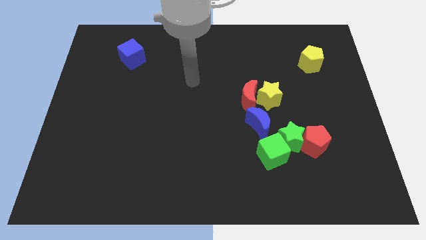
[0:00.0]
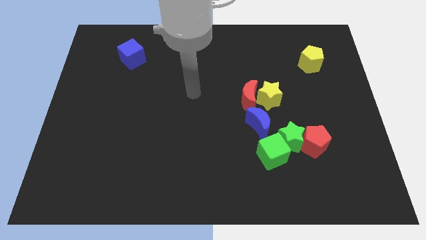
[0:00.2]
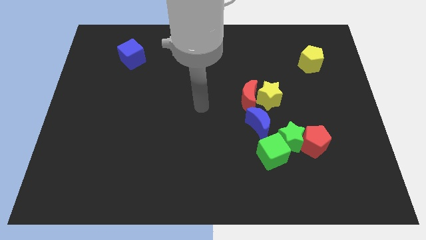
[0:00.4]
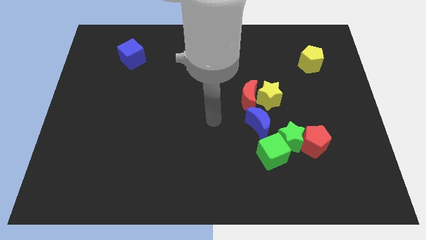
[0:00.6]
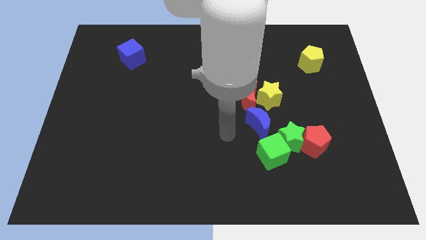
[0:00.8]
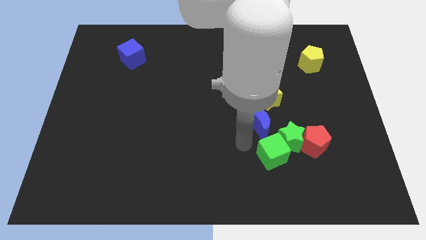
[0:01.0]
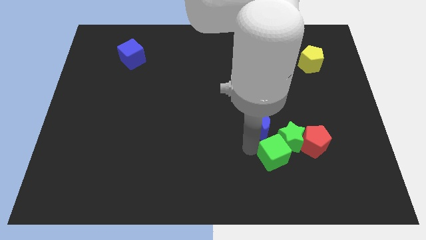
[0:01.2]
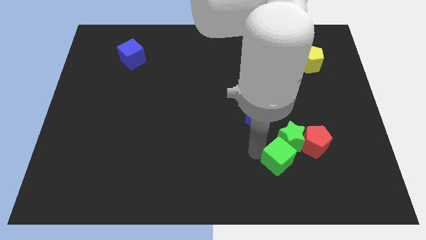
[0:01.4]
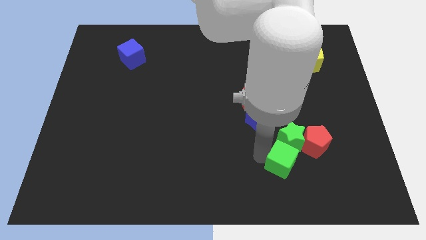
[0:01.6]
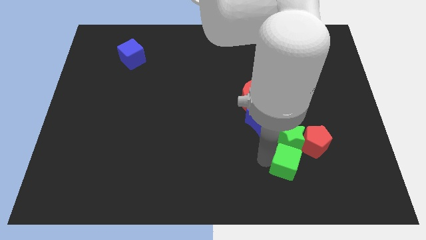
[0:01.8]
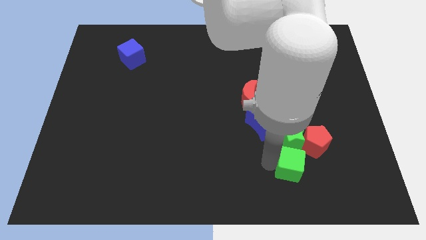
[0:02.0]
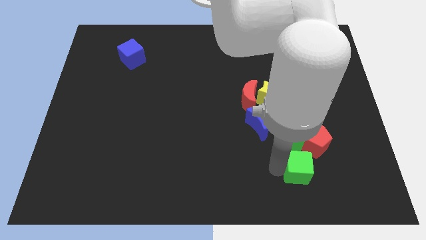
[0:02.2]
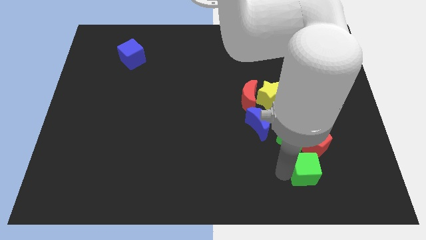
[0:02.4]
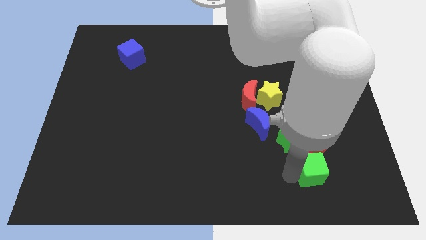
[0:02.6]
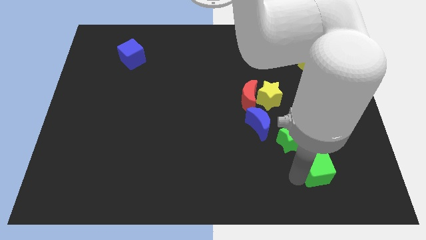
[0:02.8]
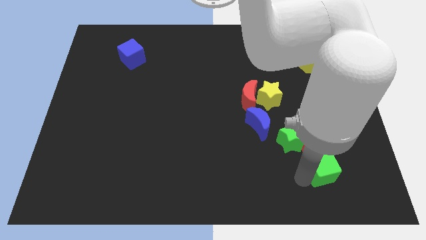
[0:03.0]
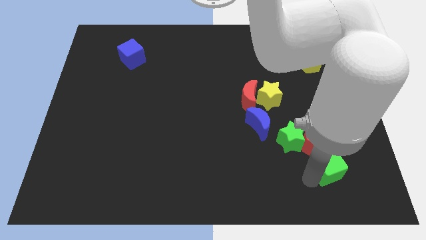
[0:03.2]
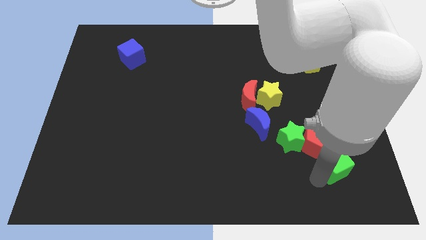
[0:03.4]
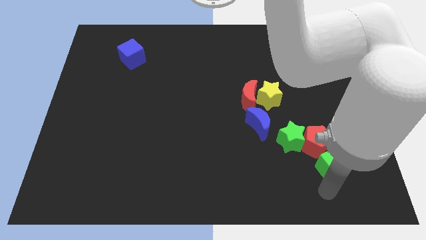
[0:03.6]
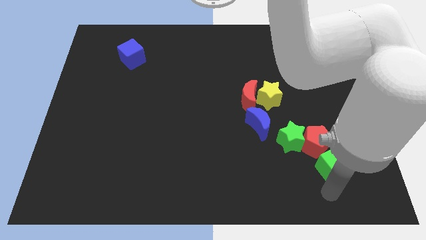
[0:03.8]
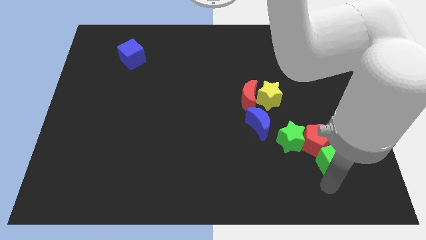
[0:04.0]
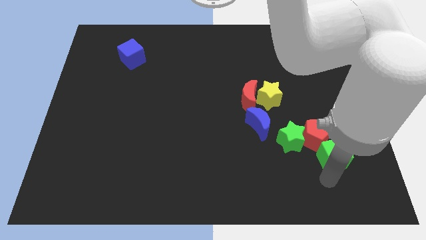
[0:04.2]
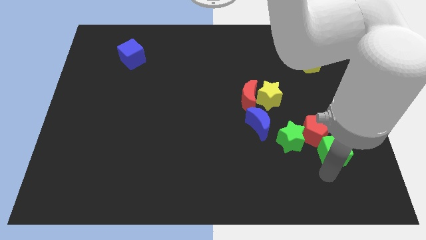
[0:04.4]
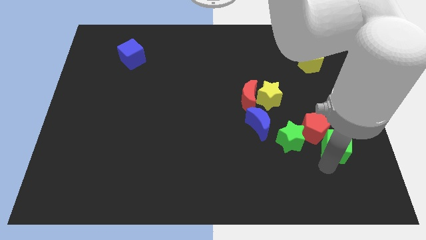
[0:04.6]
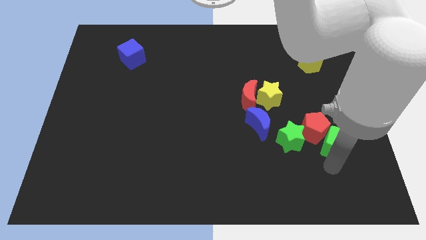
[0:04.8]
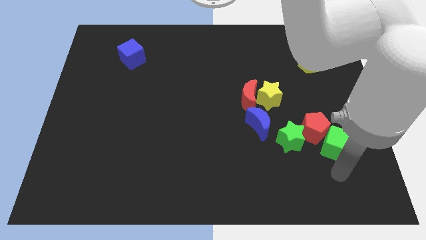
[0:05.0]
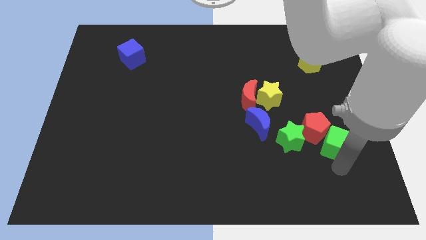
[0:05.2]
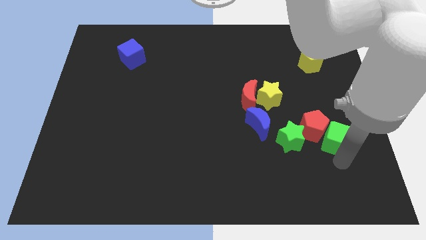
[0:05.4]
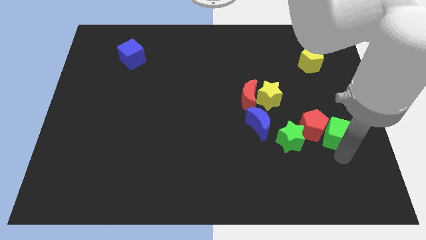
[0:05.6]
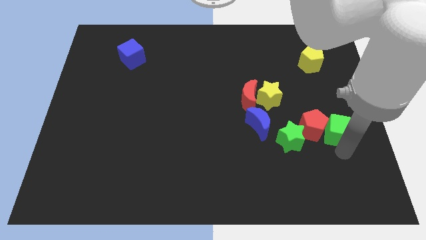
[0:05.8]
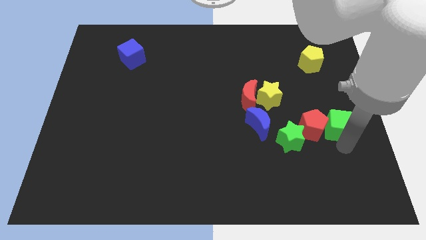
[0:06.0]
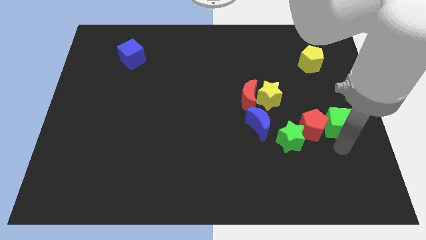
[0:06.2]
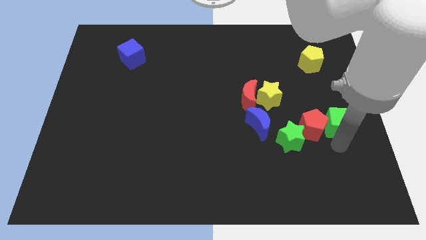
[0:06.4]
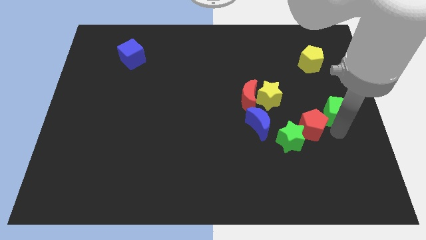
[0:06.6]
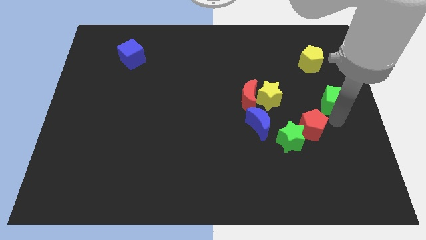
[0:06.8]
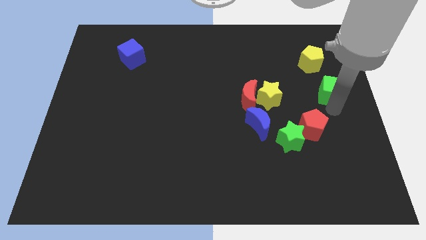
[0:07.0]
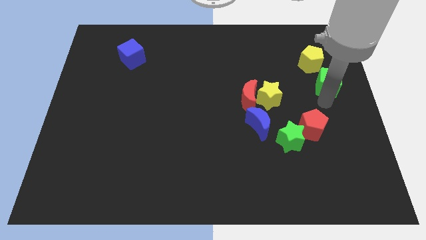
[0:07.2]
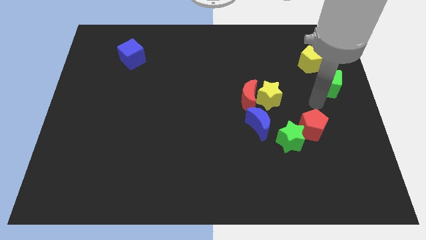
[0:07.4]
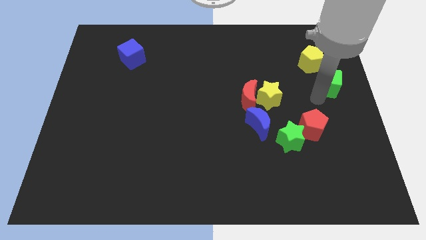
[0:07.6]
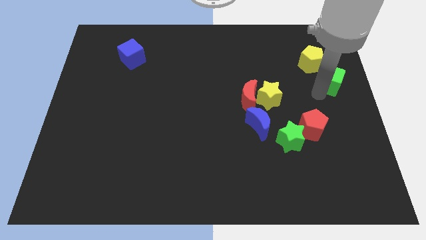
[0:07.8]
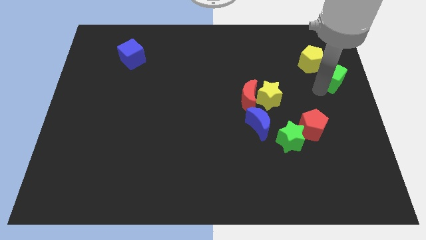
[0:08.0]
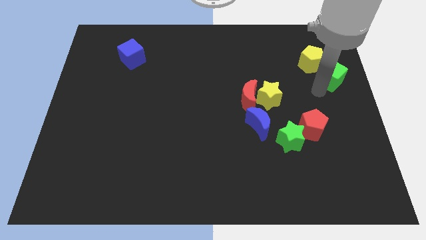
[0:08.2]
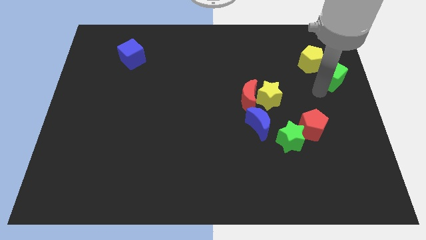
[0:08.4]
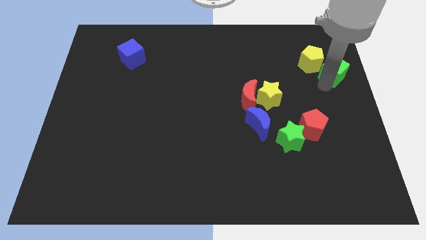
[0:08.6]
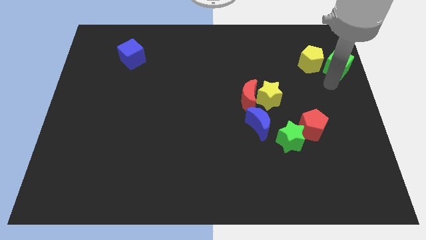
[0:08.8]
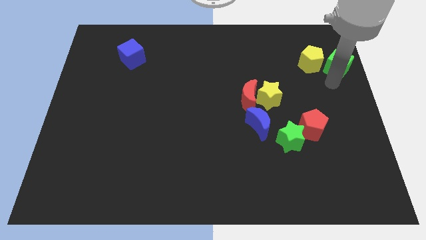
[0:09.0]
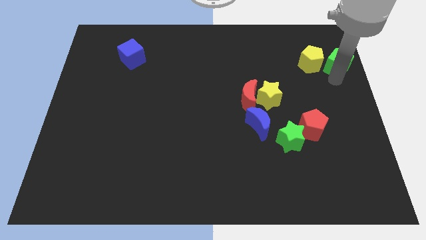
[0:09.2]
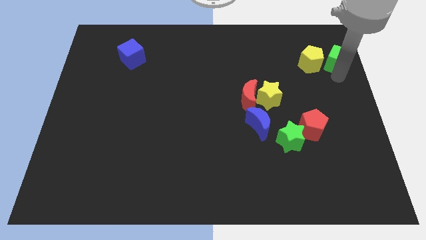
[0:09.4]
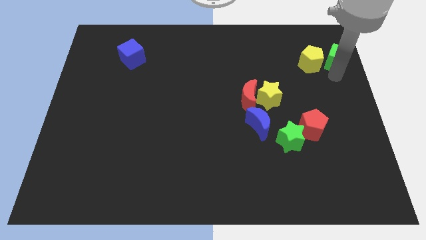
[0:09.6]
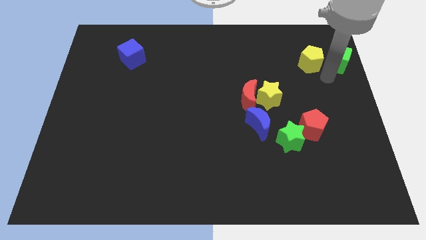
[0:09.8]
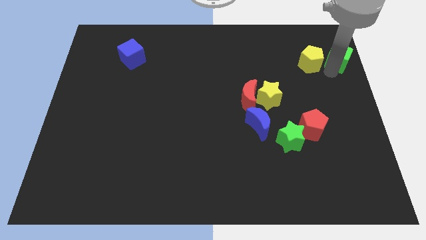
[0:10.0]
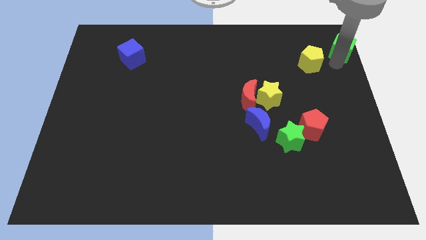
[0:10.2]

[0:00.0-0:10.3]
push the green cube to the upper right corner
